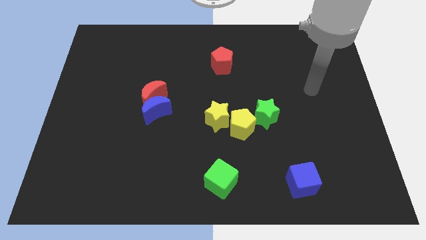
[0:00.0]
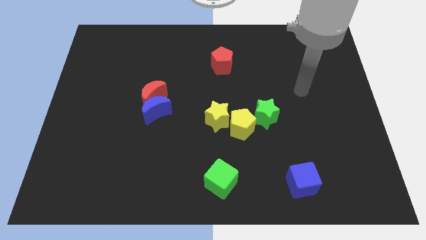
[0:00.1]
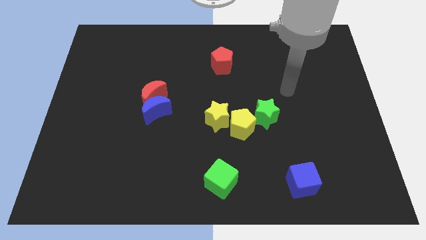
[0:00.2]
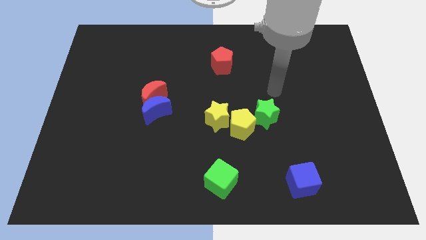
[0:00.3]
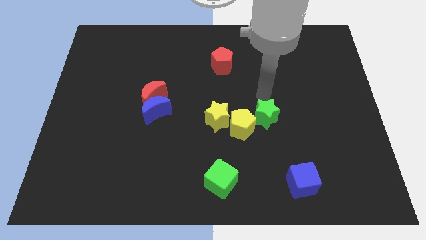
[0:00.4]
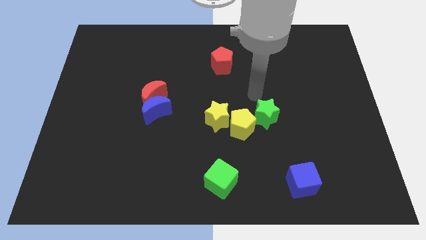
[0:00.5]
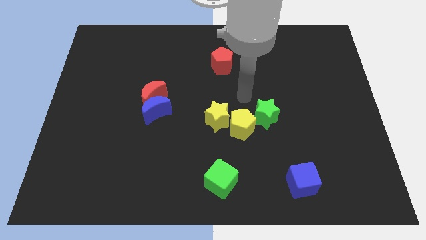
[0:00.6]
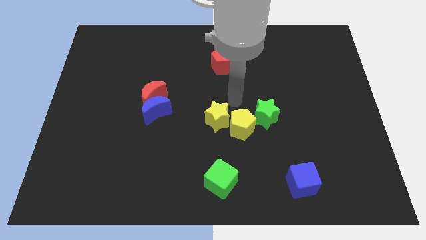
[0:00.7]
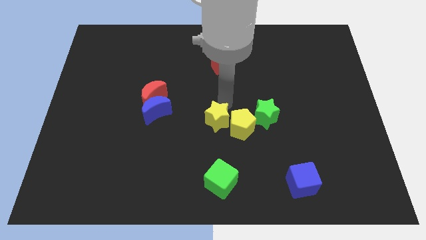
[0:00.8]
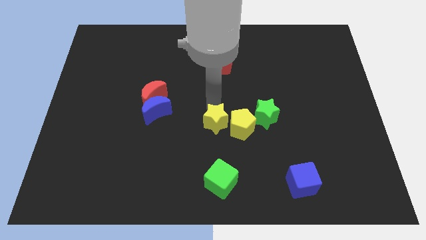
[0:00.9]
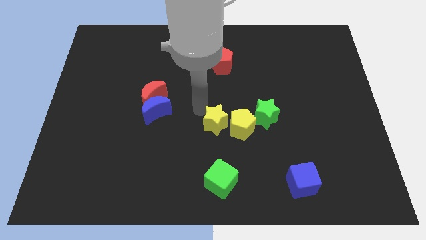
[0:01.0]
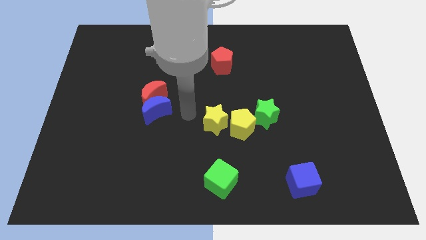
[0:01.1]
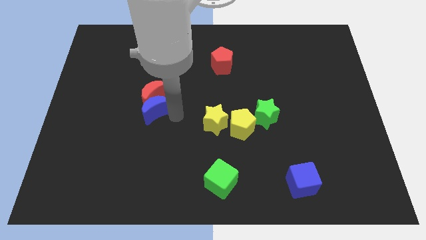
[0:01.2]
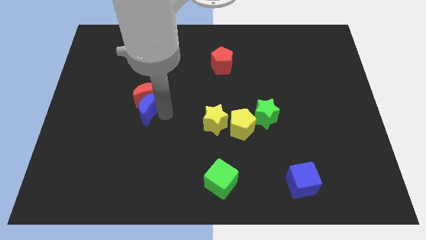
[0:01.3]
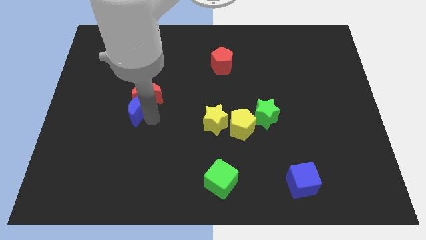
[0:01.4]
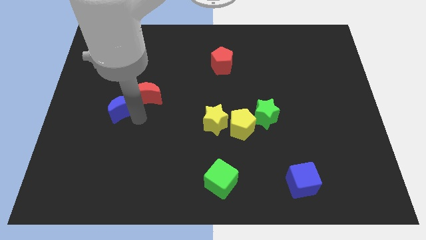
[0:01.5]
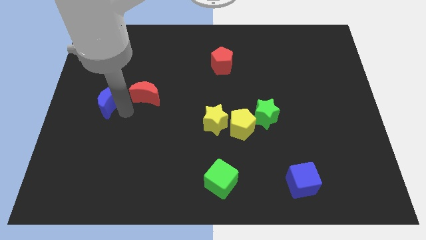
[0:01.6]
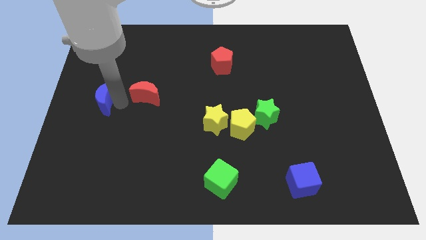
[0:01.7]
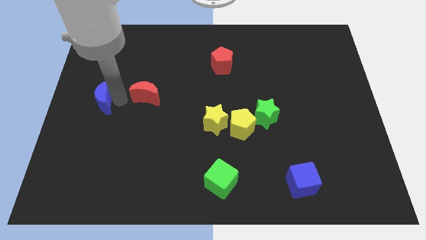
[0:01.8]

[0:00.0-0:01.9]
move the red moon away from the blue moon

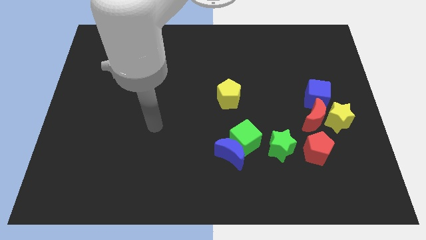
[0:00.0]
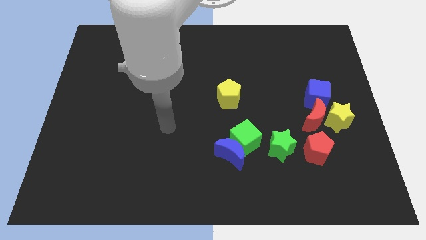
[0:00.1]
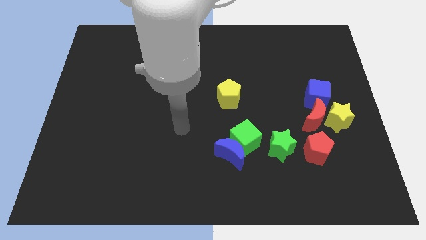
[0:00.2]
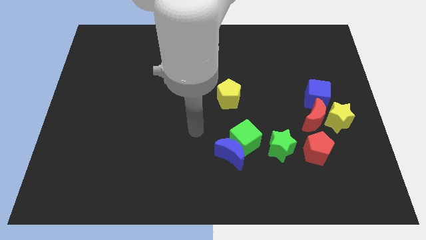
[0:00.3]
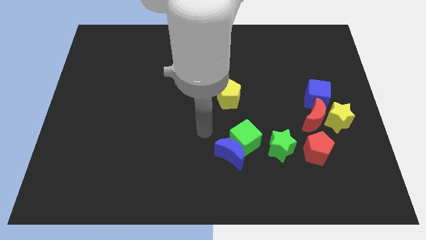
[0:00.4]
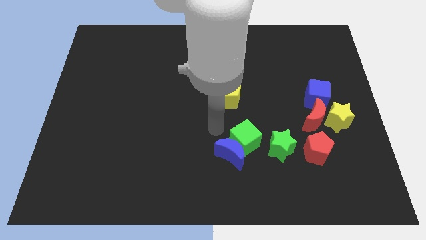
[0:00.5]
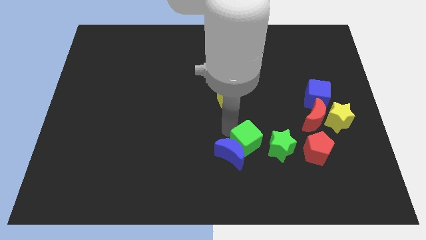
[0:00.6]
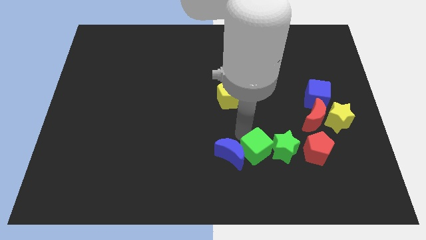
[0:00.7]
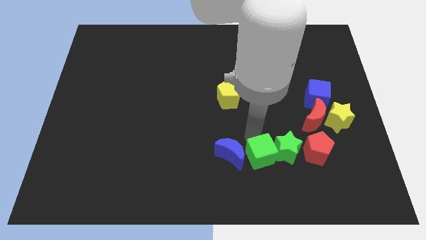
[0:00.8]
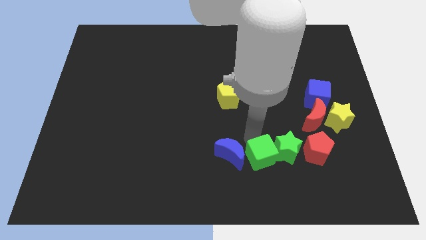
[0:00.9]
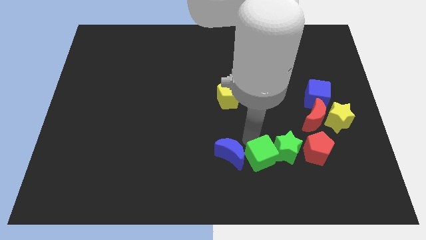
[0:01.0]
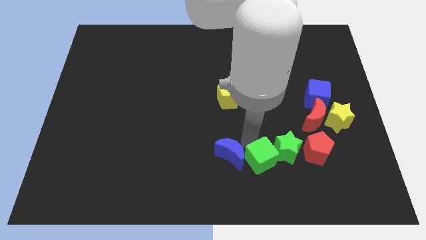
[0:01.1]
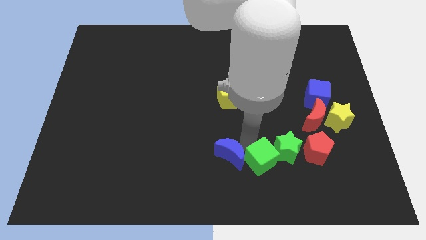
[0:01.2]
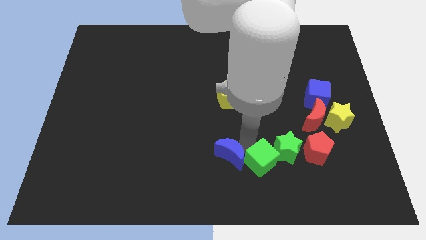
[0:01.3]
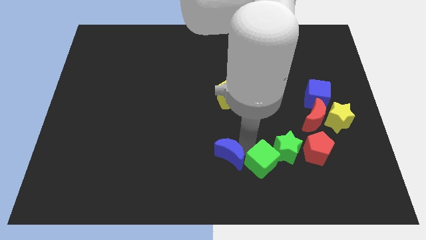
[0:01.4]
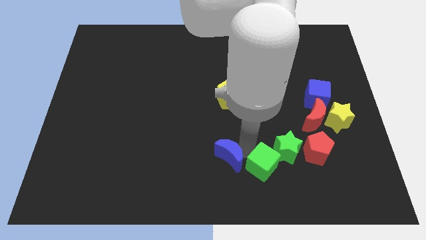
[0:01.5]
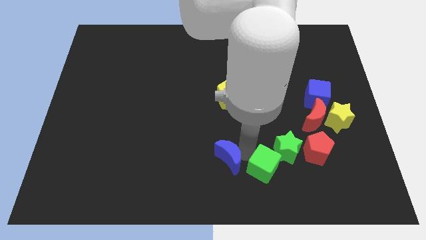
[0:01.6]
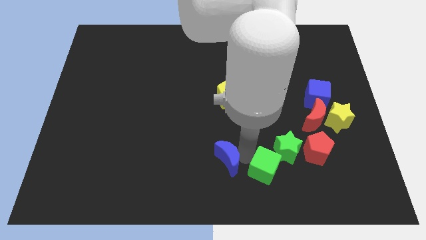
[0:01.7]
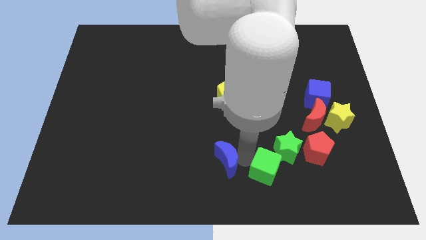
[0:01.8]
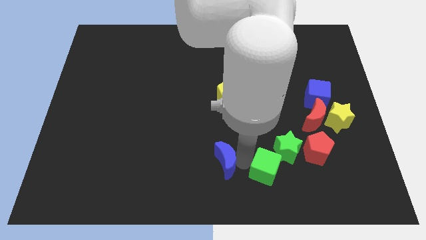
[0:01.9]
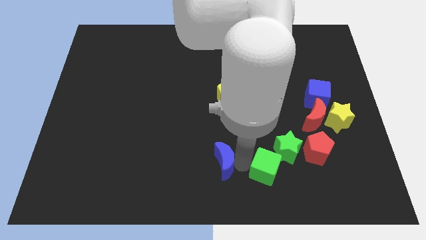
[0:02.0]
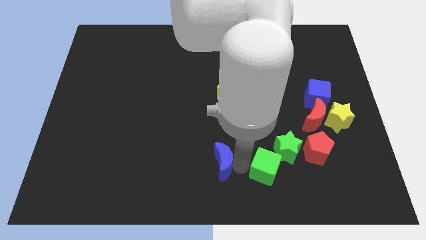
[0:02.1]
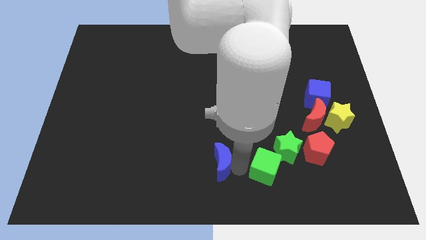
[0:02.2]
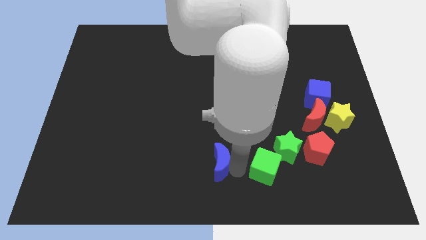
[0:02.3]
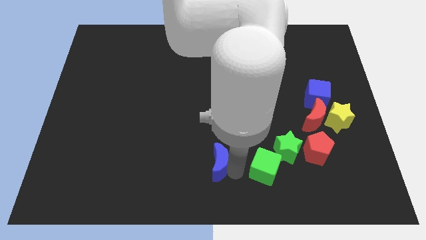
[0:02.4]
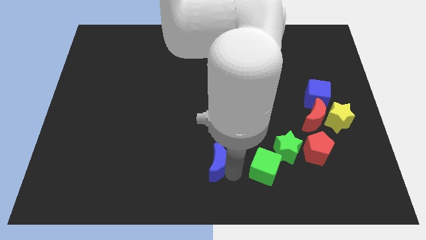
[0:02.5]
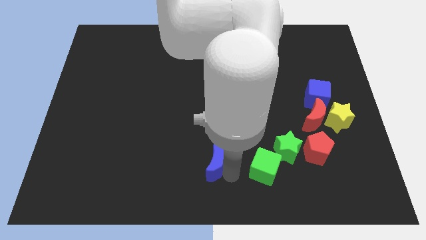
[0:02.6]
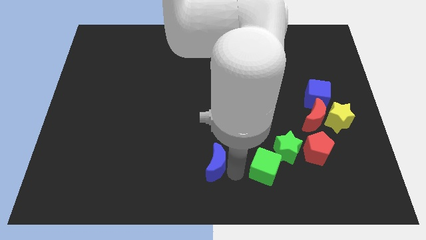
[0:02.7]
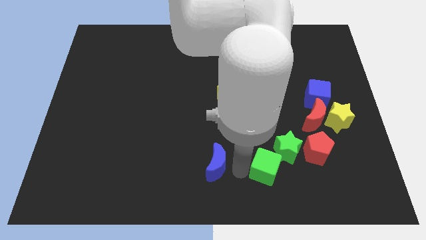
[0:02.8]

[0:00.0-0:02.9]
pull the blue moon apart from the green cube

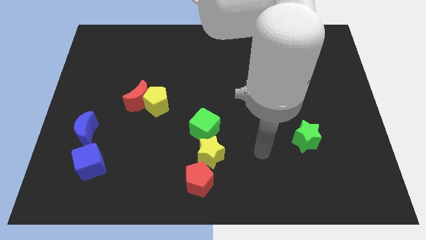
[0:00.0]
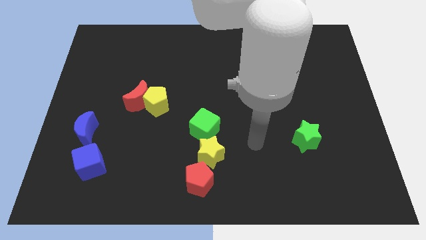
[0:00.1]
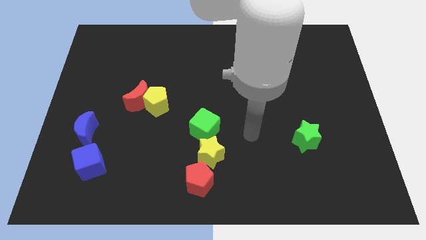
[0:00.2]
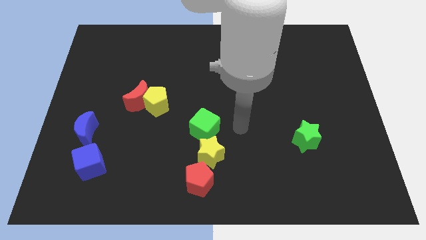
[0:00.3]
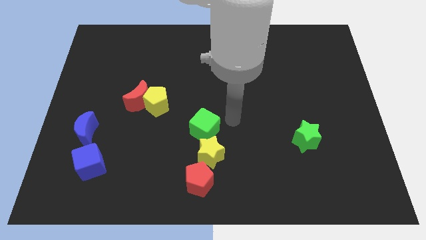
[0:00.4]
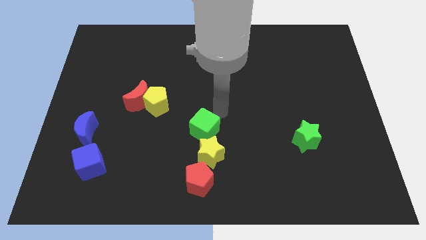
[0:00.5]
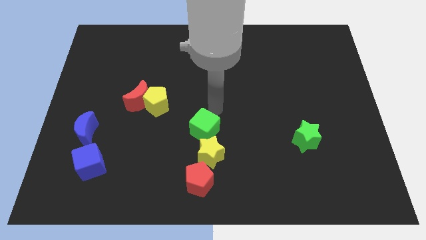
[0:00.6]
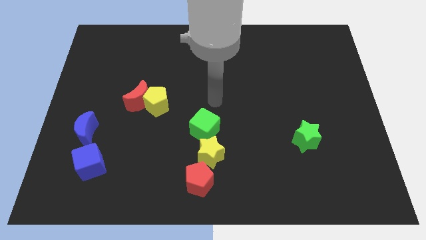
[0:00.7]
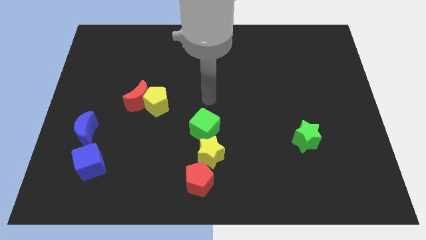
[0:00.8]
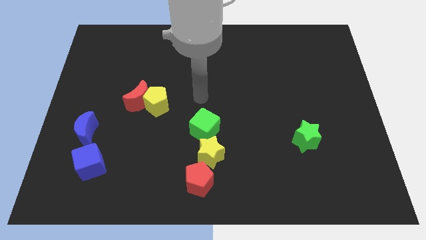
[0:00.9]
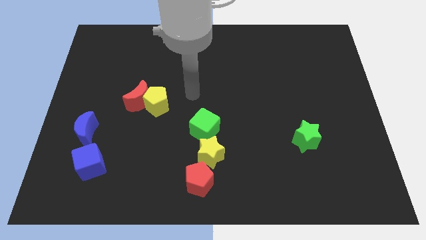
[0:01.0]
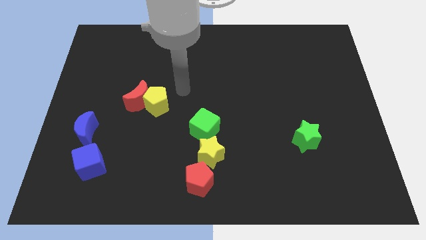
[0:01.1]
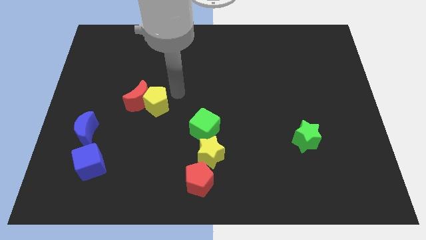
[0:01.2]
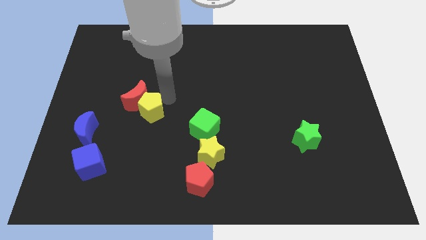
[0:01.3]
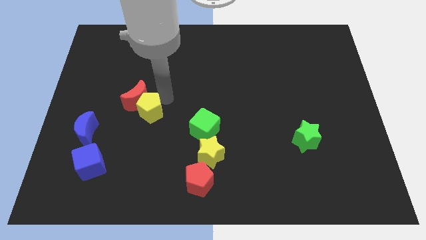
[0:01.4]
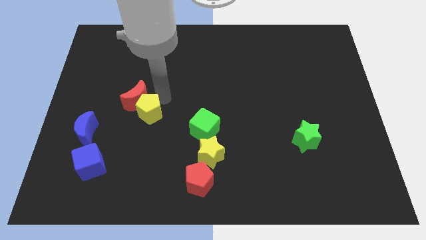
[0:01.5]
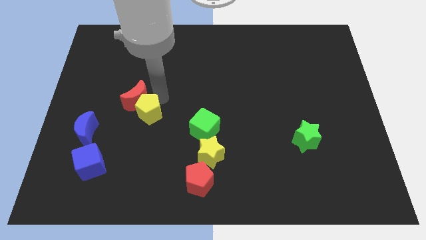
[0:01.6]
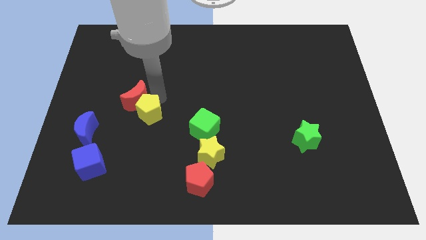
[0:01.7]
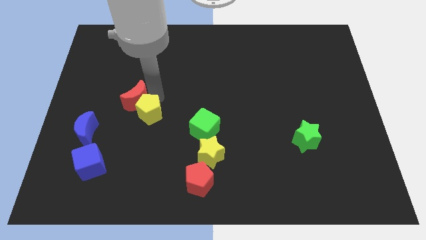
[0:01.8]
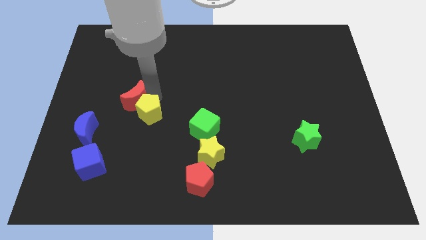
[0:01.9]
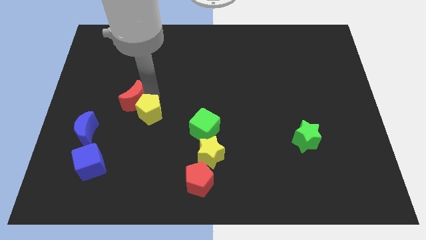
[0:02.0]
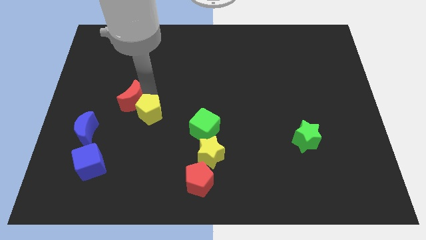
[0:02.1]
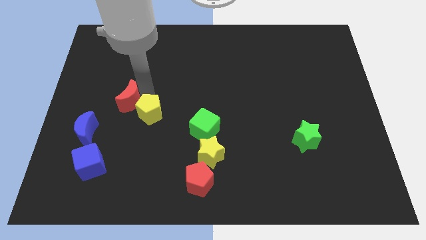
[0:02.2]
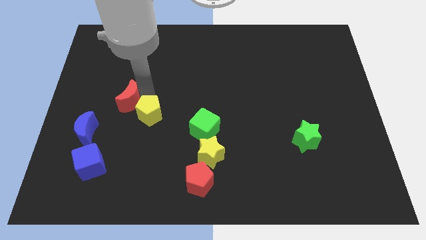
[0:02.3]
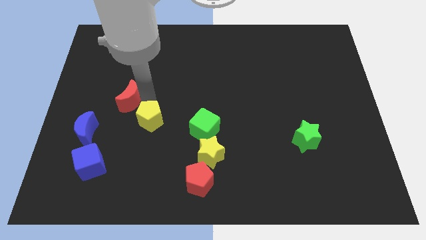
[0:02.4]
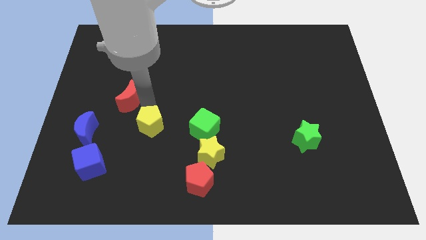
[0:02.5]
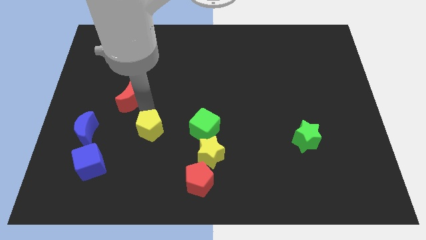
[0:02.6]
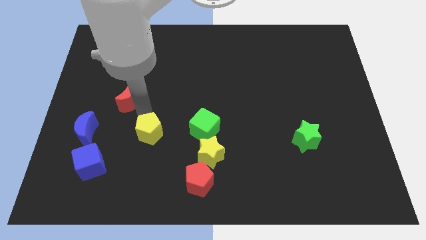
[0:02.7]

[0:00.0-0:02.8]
separate the red moon from the yellow pentagon

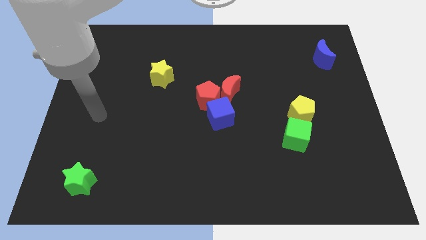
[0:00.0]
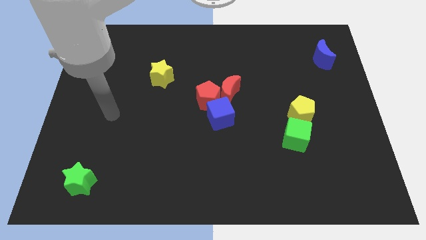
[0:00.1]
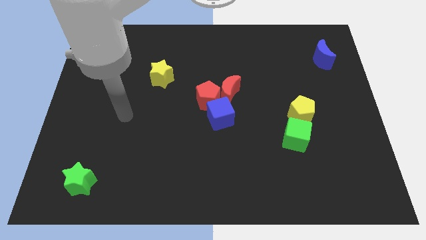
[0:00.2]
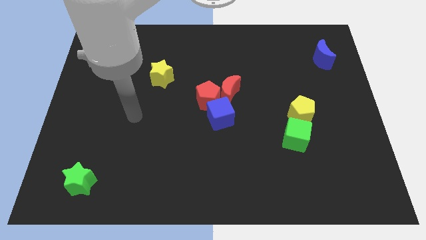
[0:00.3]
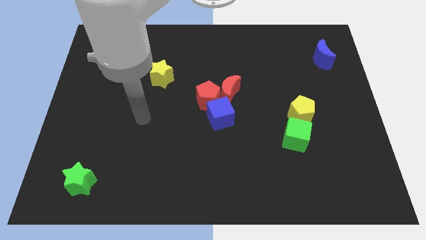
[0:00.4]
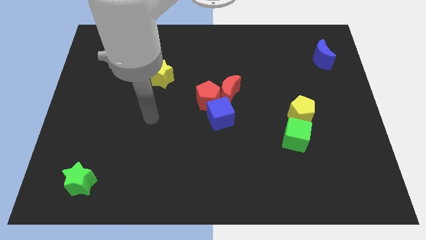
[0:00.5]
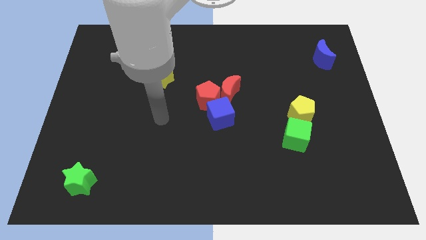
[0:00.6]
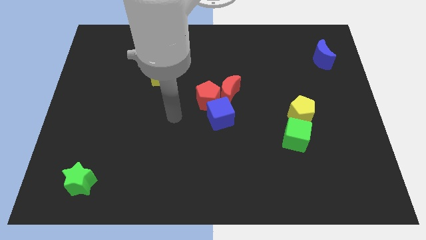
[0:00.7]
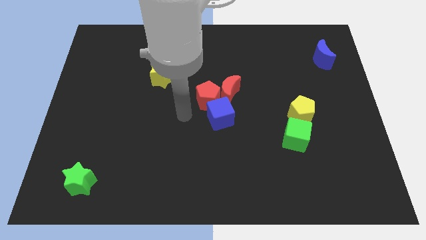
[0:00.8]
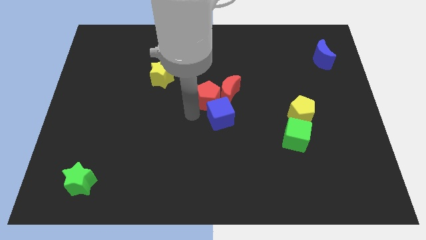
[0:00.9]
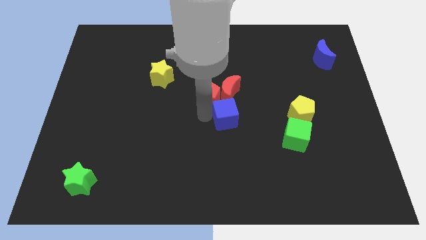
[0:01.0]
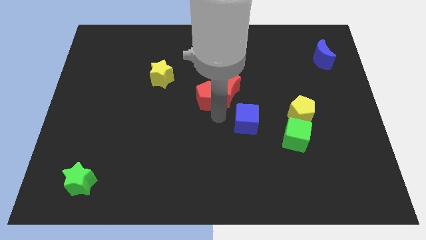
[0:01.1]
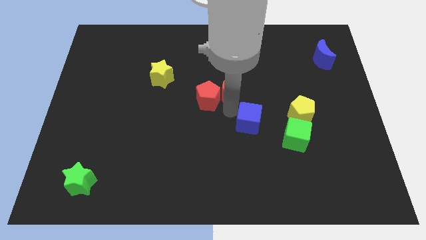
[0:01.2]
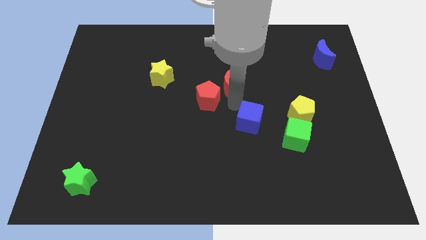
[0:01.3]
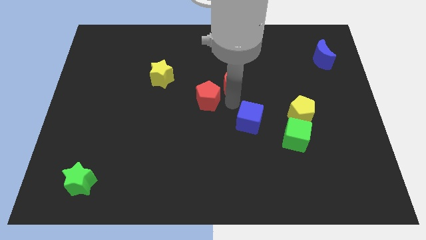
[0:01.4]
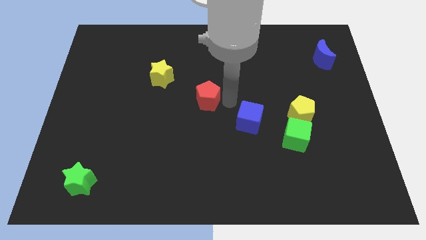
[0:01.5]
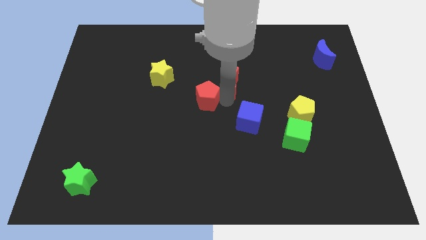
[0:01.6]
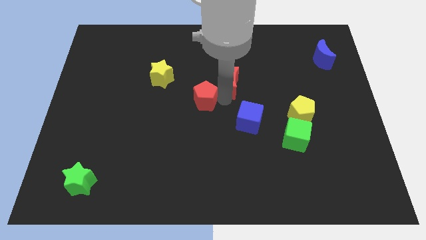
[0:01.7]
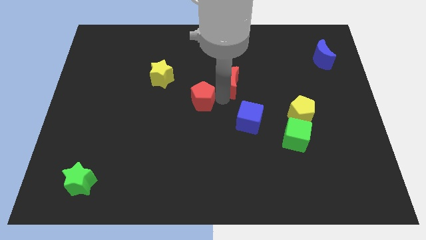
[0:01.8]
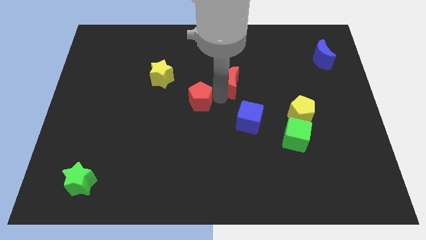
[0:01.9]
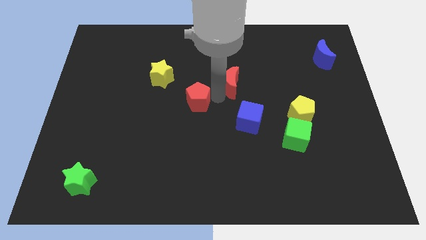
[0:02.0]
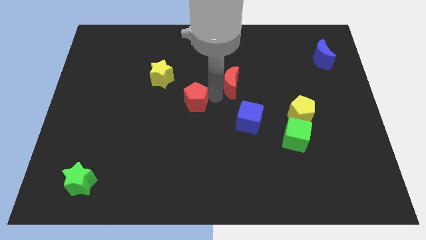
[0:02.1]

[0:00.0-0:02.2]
separate the red pentagon from the red moon and blue cube
